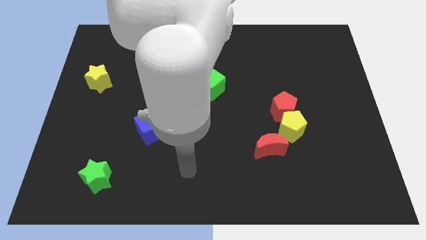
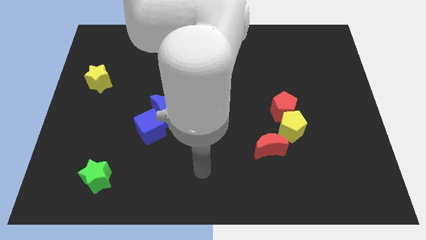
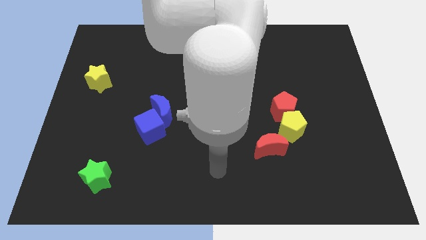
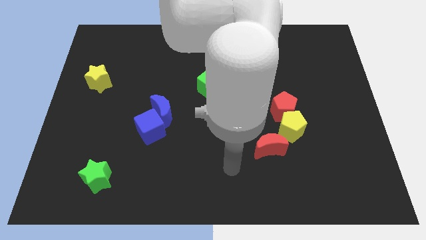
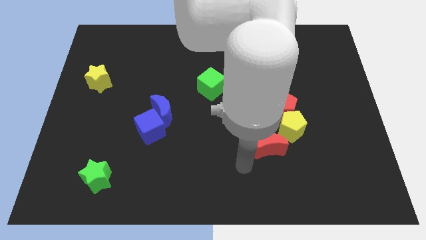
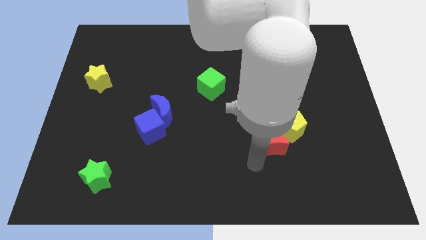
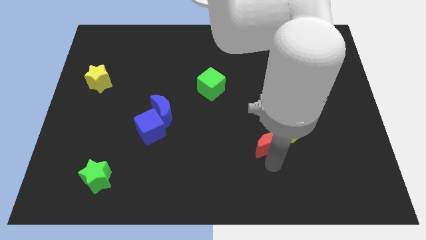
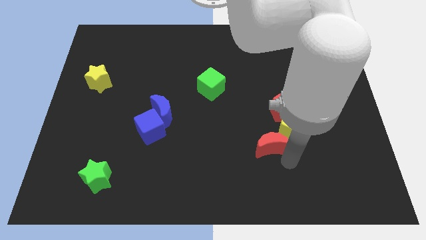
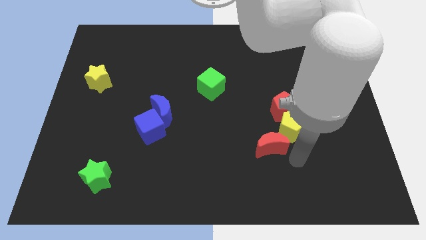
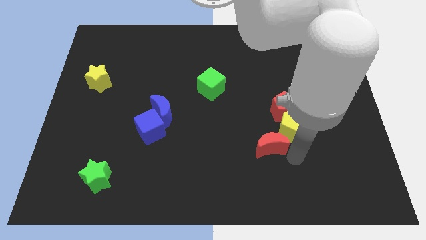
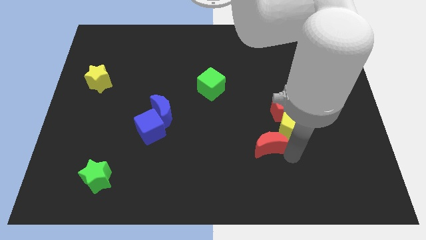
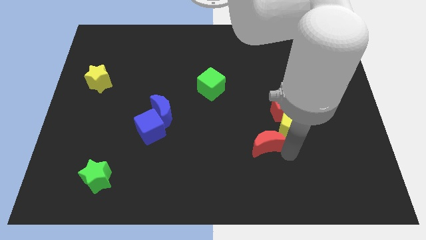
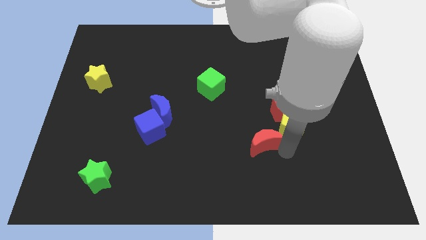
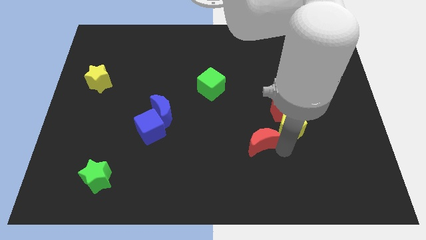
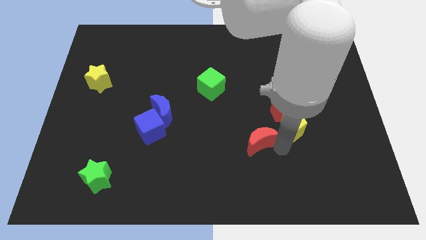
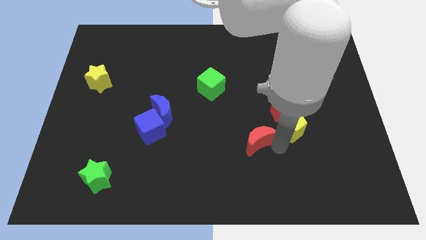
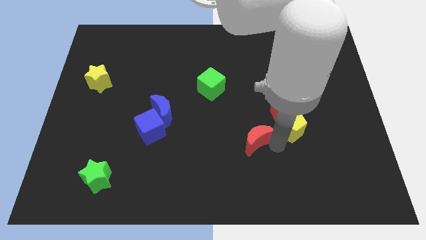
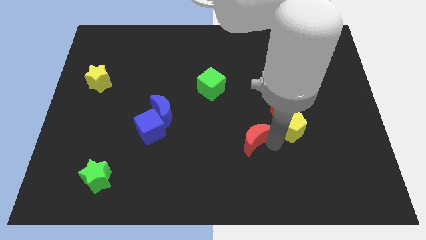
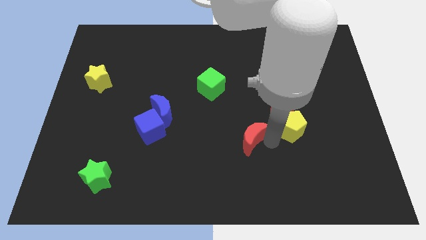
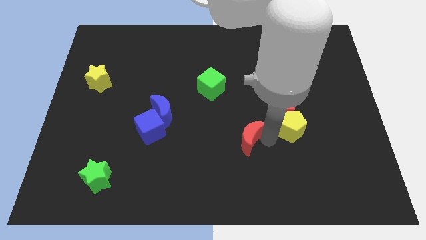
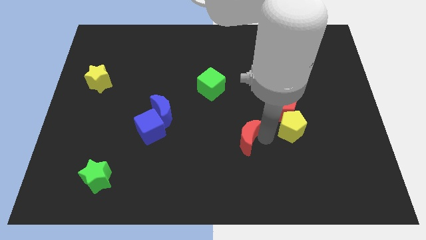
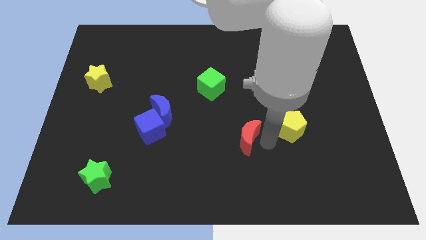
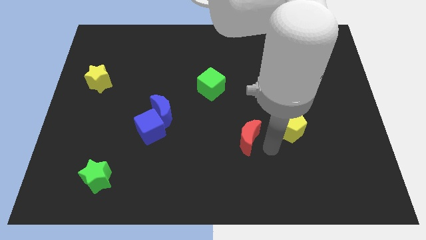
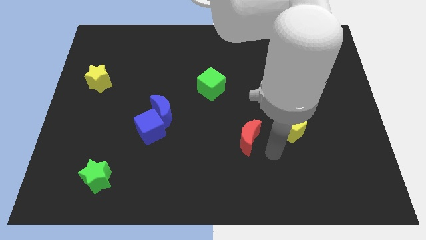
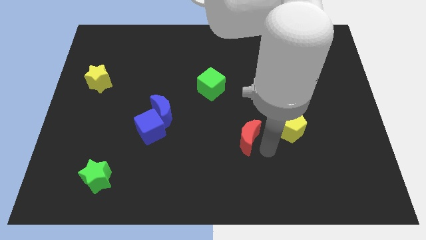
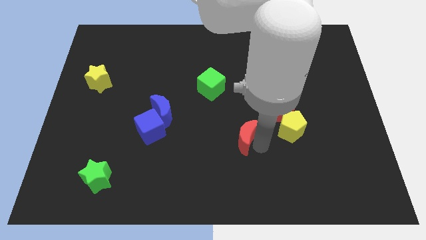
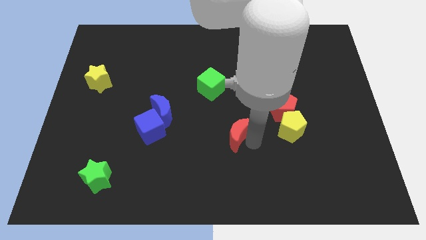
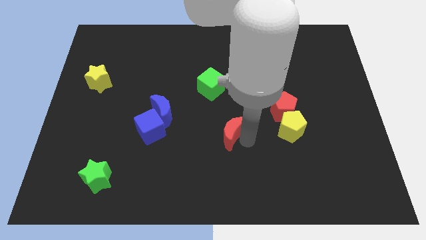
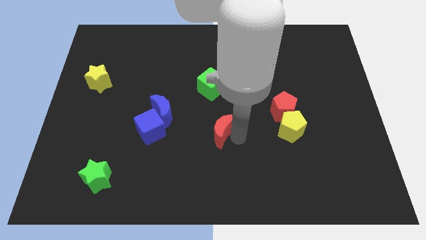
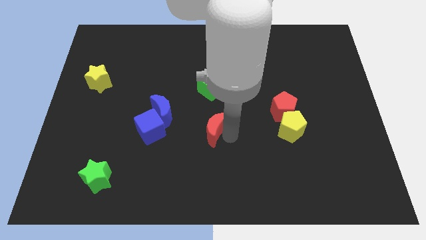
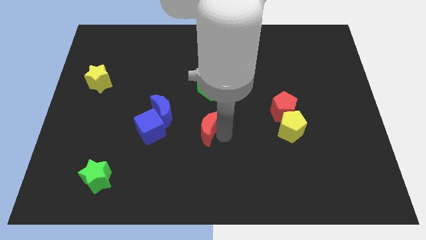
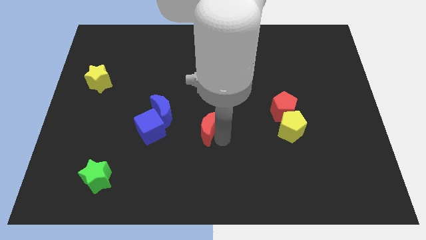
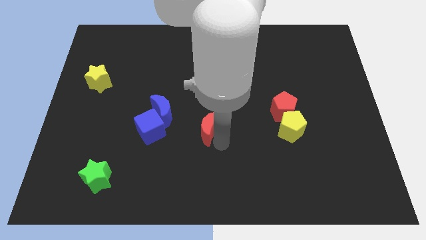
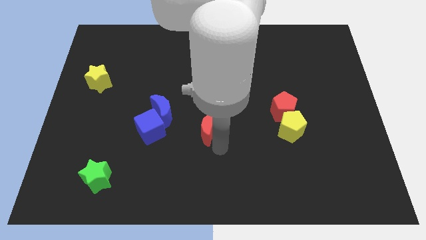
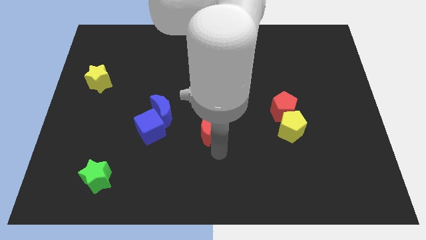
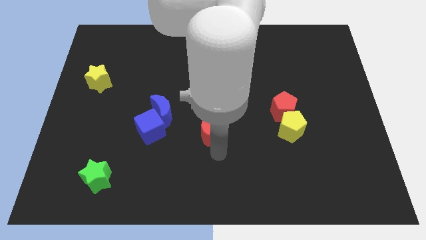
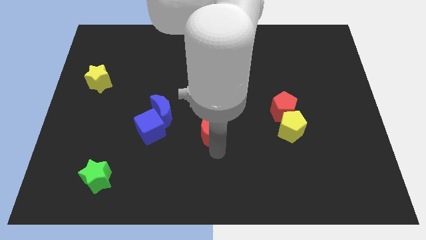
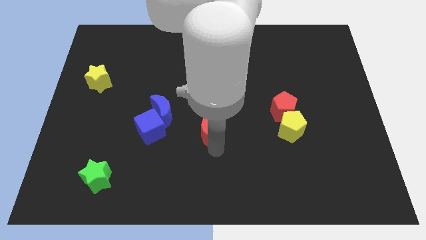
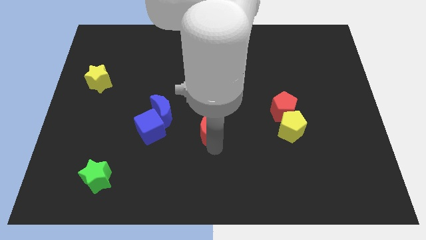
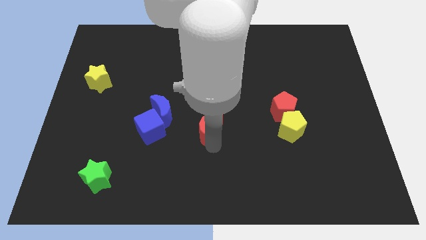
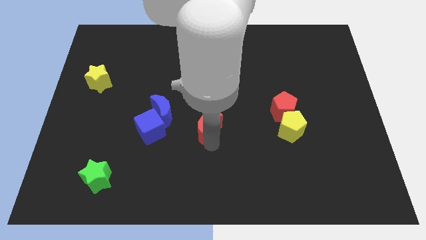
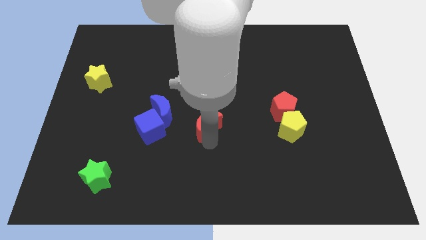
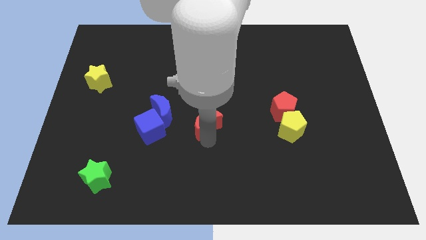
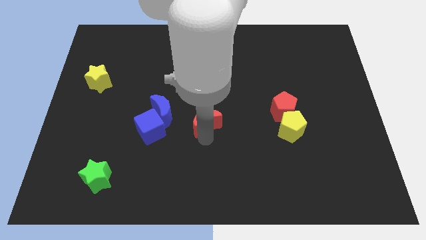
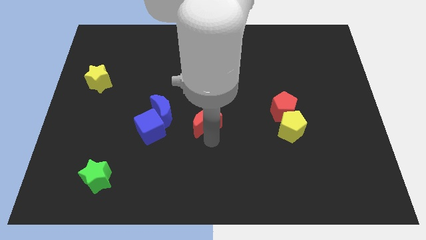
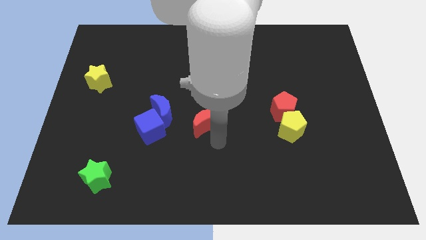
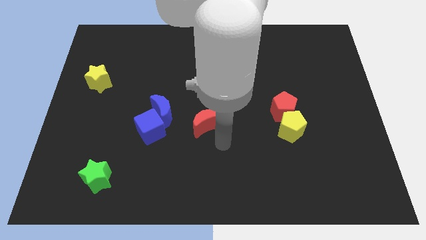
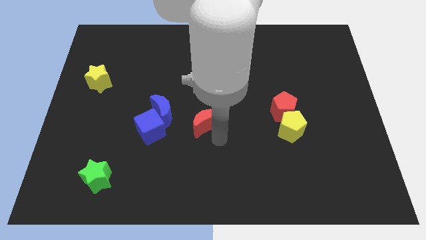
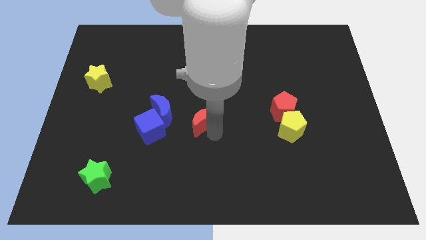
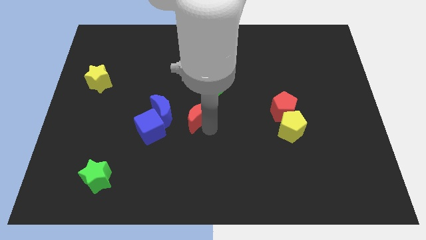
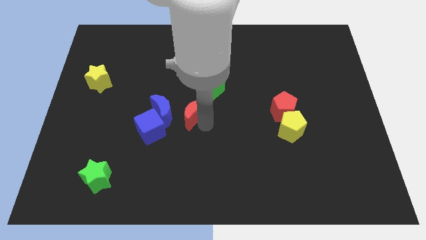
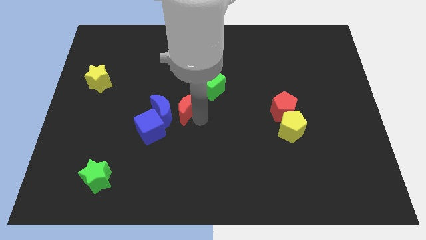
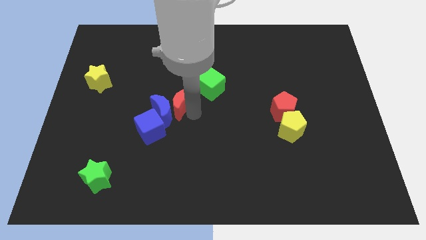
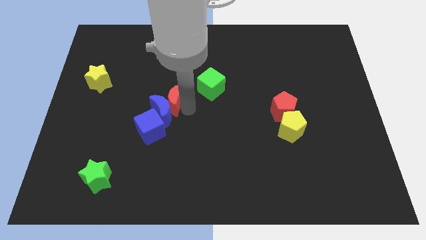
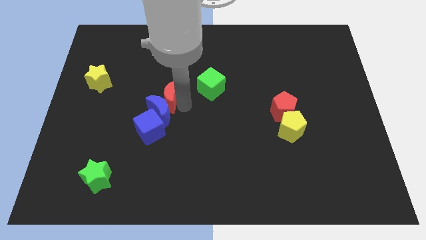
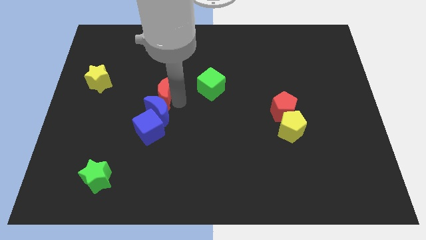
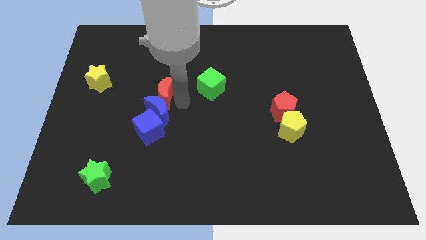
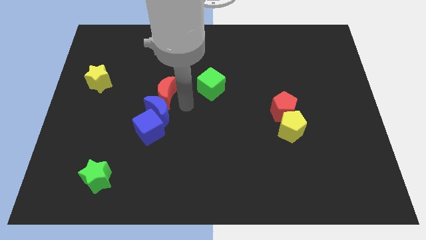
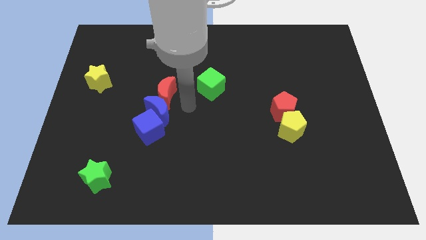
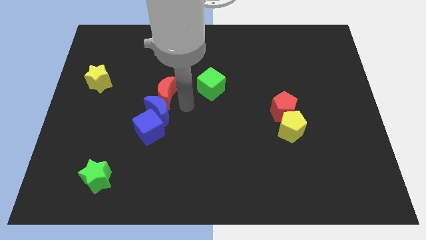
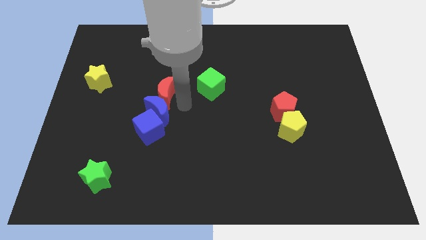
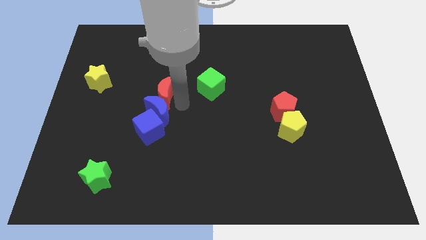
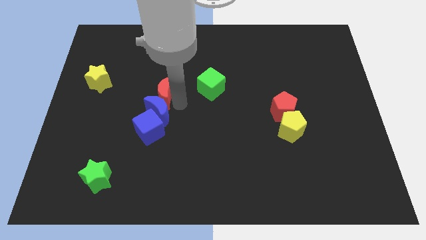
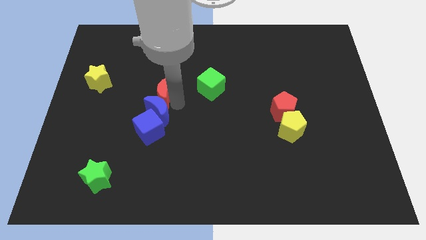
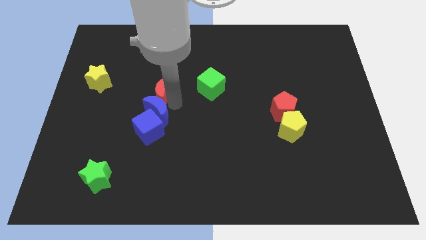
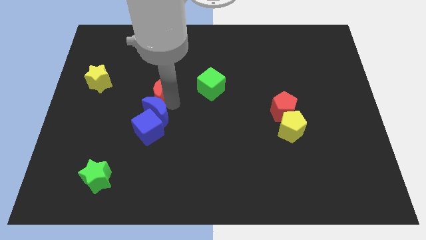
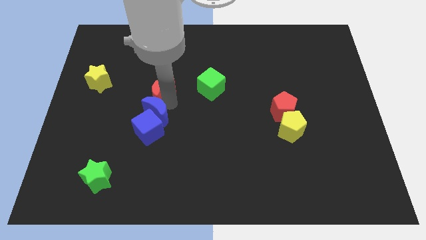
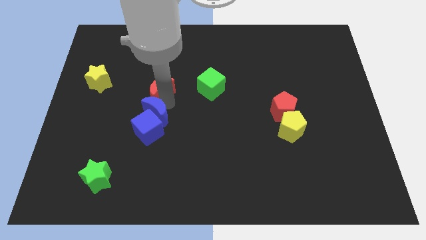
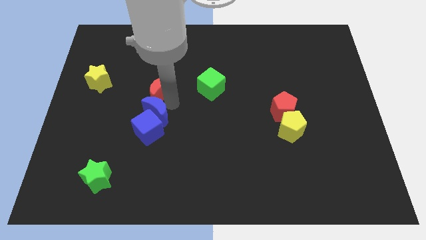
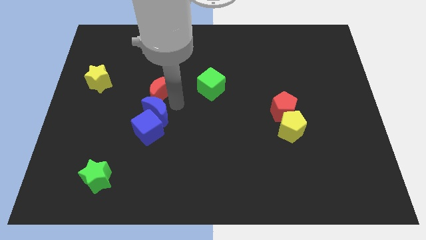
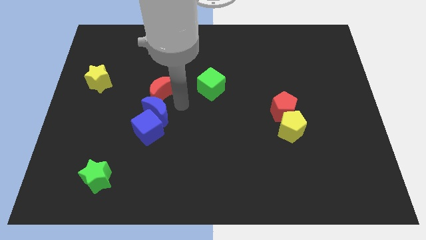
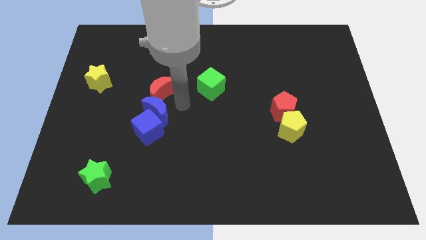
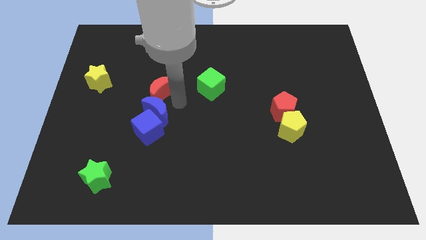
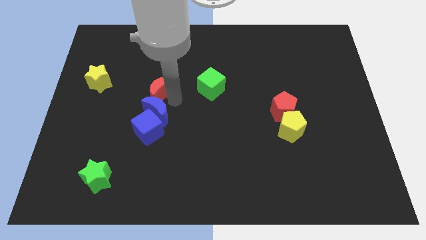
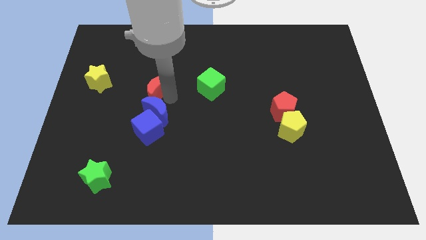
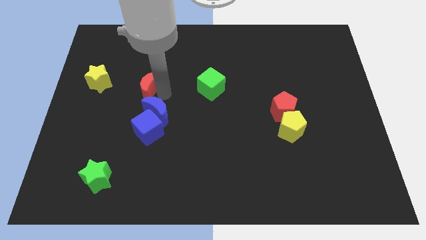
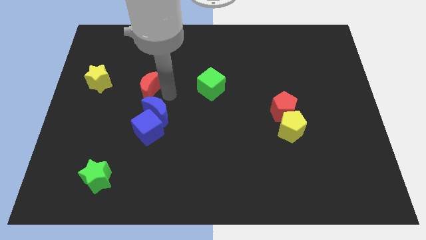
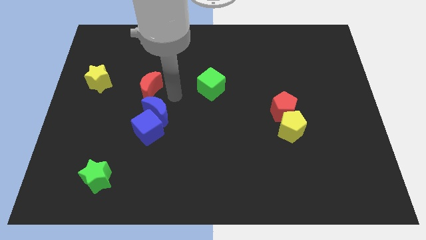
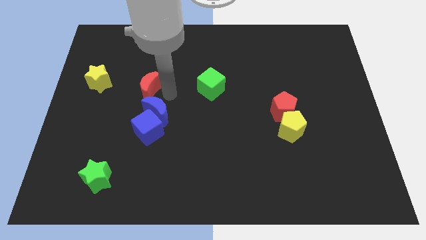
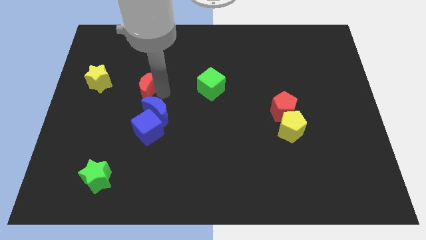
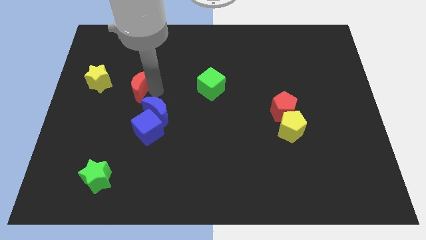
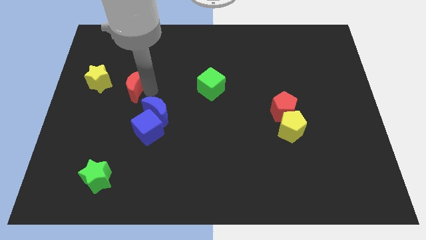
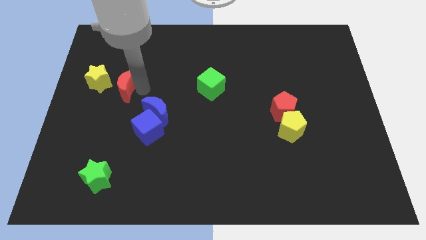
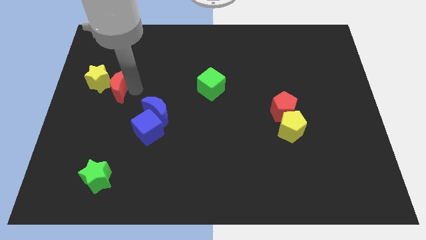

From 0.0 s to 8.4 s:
put the red moon to the yellow star
